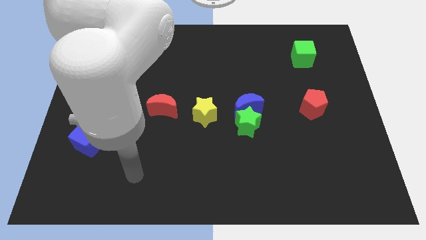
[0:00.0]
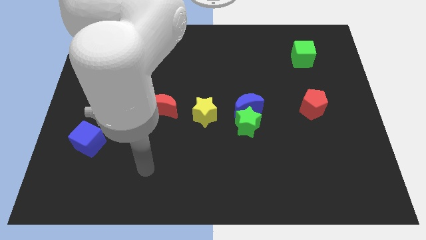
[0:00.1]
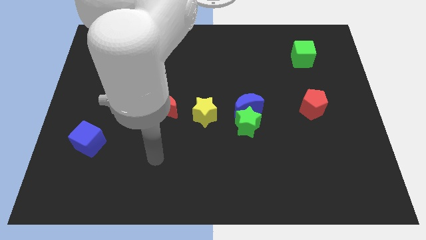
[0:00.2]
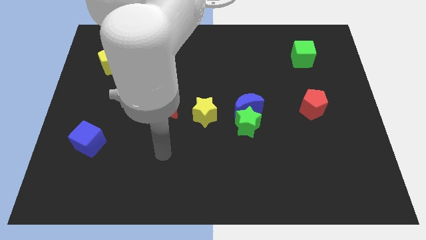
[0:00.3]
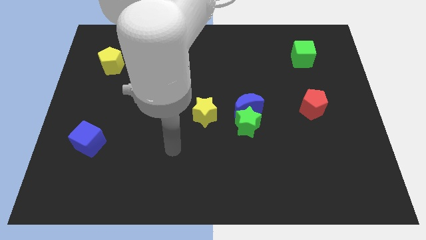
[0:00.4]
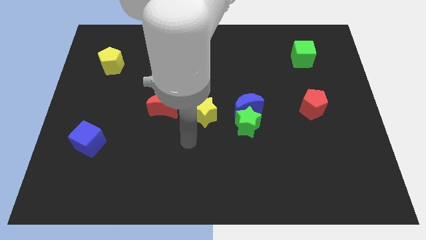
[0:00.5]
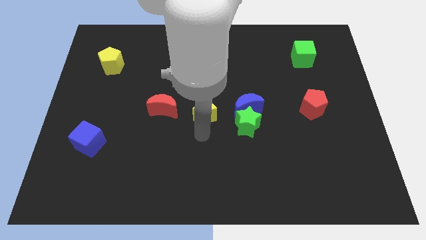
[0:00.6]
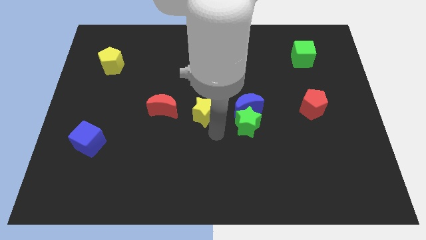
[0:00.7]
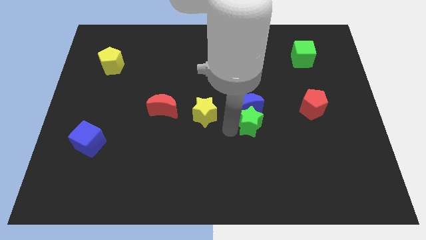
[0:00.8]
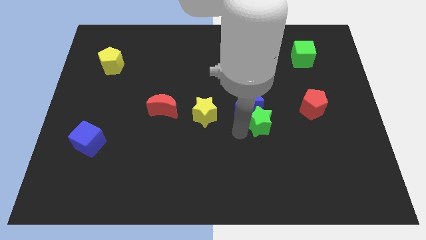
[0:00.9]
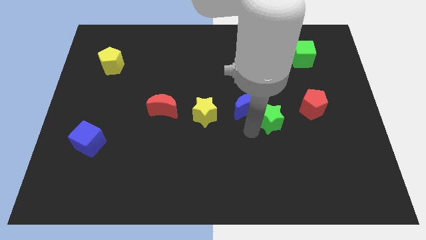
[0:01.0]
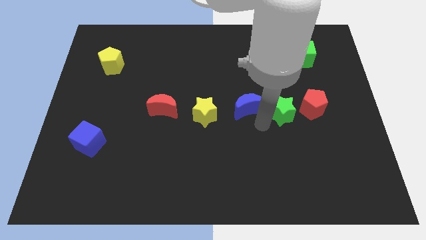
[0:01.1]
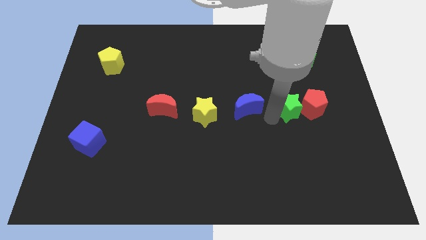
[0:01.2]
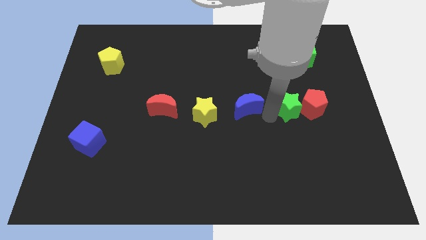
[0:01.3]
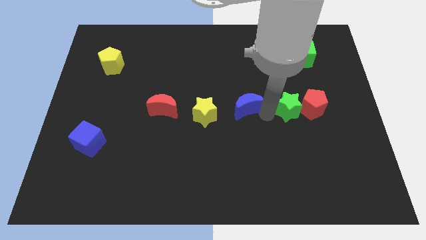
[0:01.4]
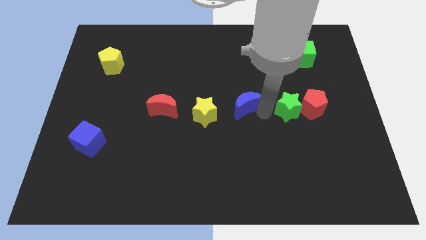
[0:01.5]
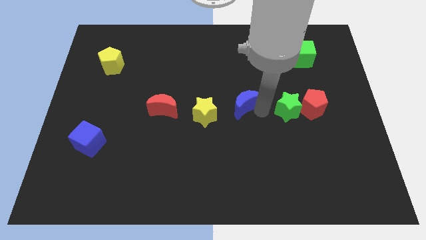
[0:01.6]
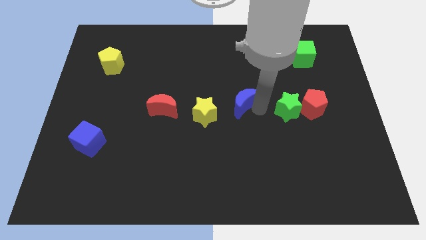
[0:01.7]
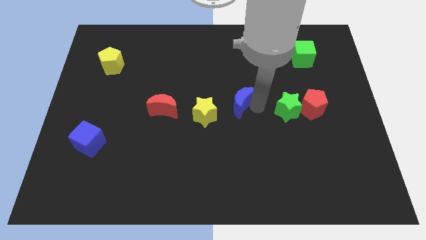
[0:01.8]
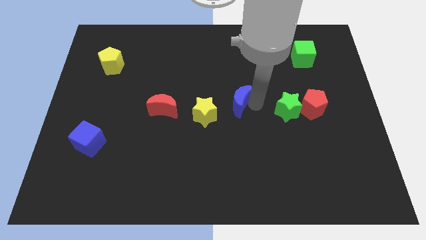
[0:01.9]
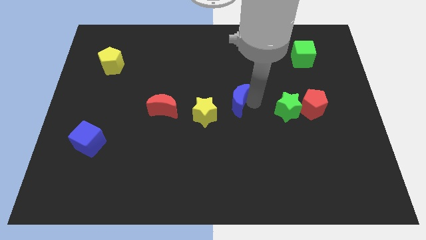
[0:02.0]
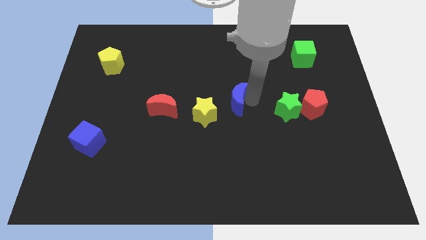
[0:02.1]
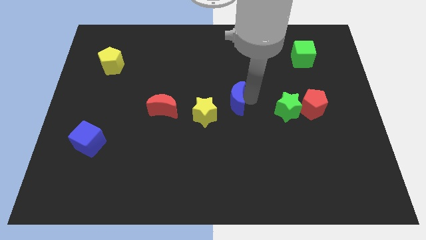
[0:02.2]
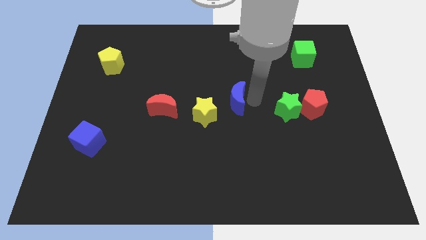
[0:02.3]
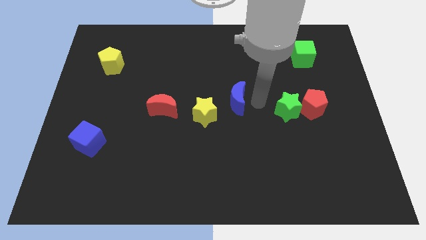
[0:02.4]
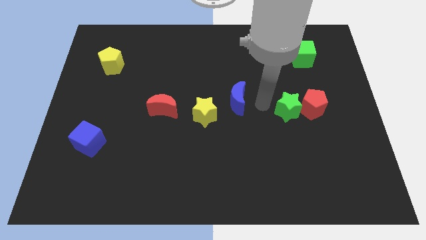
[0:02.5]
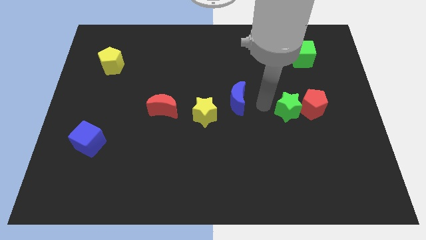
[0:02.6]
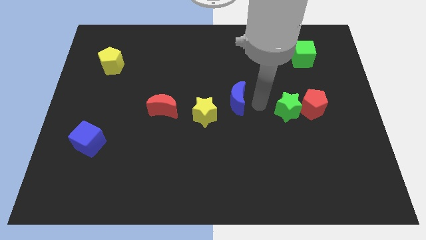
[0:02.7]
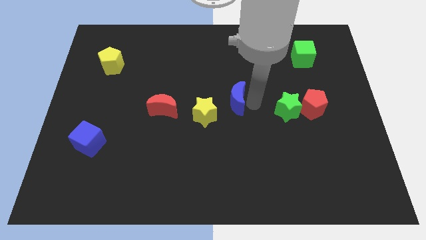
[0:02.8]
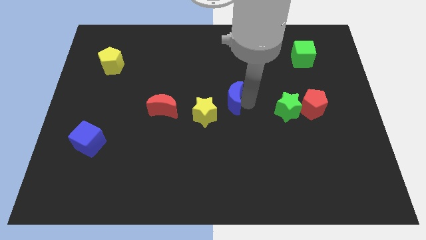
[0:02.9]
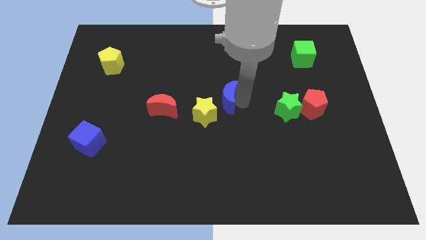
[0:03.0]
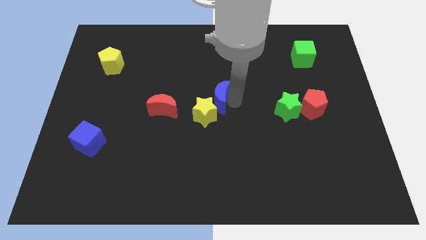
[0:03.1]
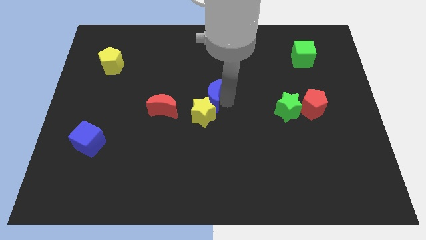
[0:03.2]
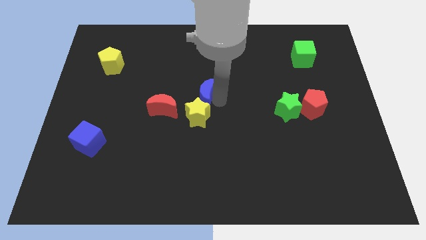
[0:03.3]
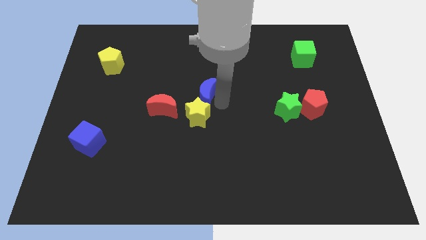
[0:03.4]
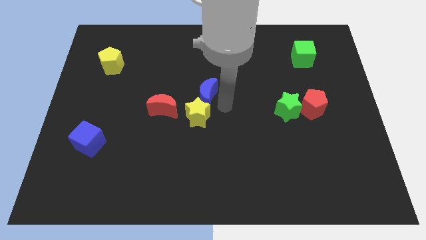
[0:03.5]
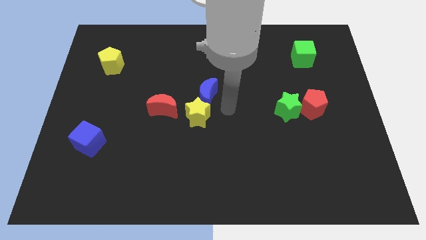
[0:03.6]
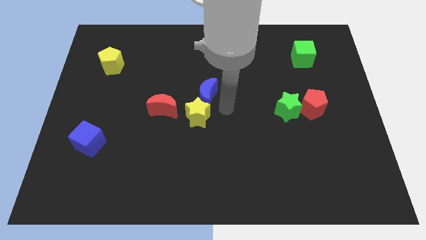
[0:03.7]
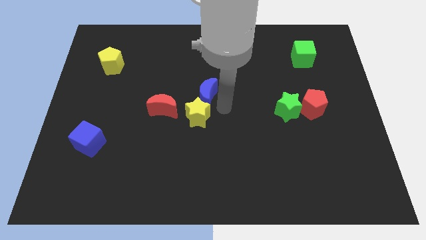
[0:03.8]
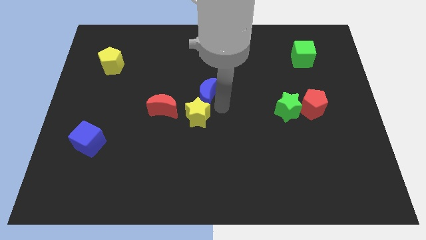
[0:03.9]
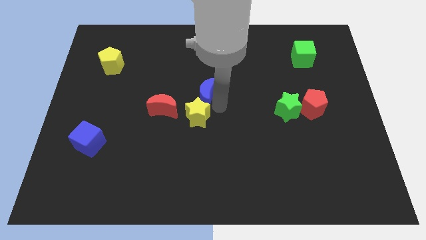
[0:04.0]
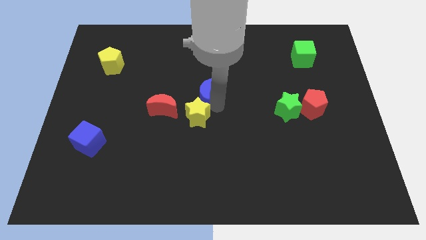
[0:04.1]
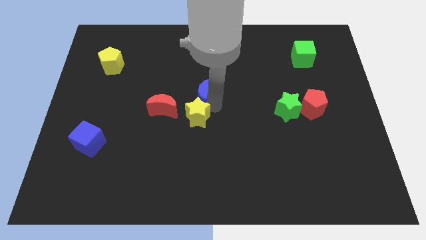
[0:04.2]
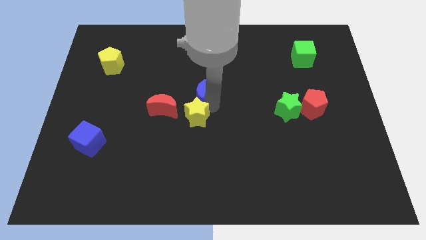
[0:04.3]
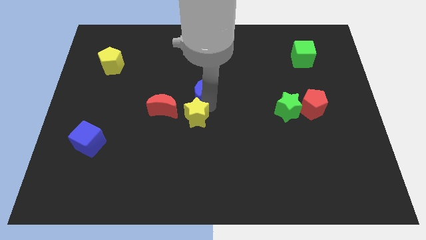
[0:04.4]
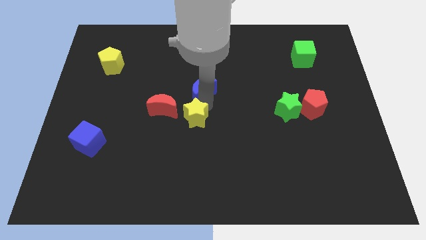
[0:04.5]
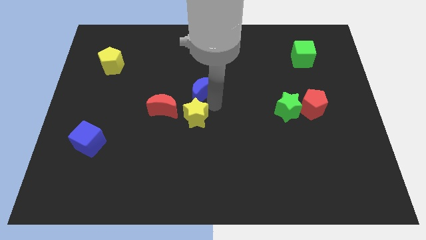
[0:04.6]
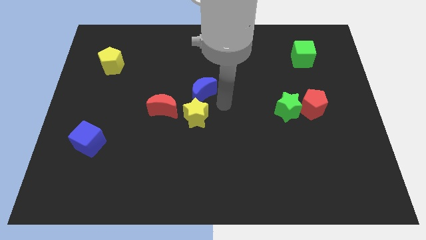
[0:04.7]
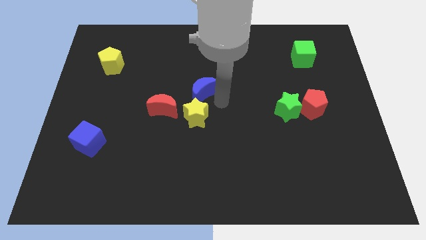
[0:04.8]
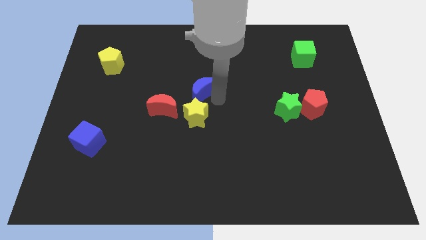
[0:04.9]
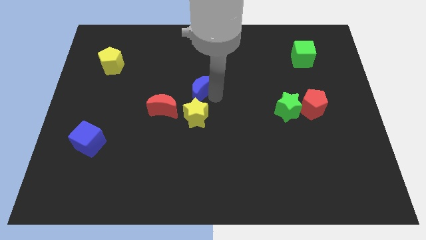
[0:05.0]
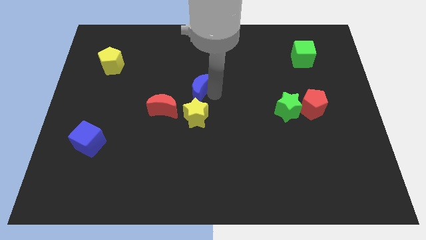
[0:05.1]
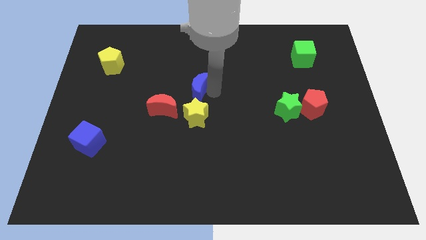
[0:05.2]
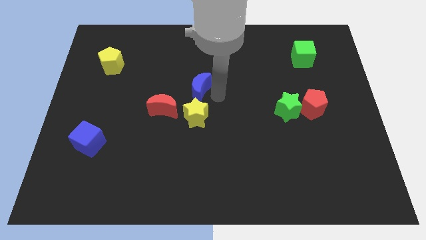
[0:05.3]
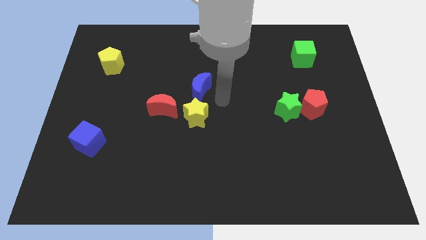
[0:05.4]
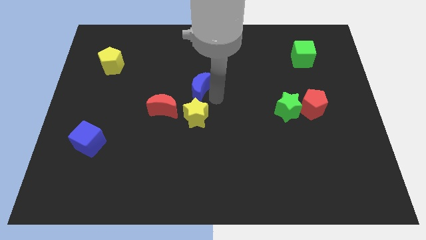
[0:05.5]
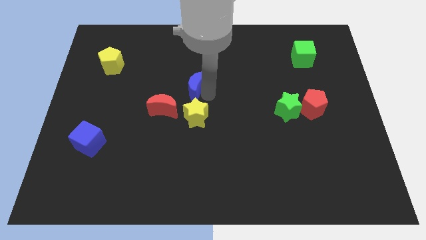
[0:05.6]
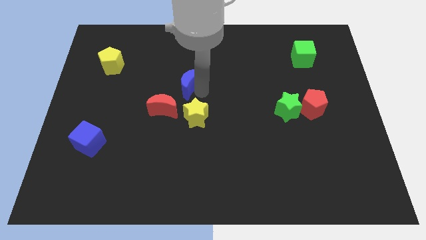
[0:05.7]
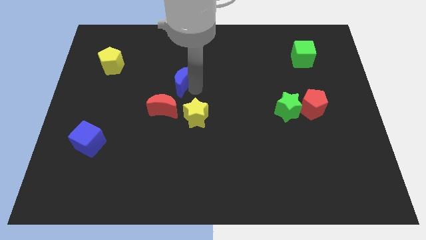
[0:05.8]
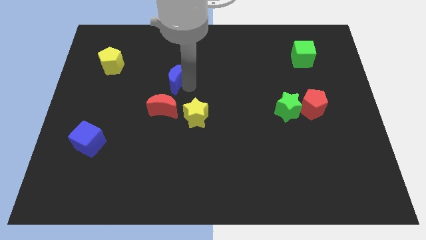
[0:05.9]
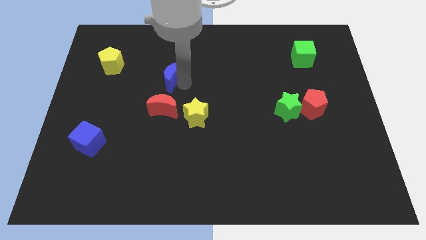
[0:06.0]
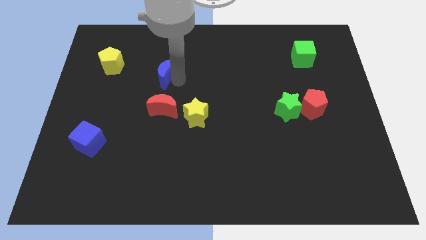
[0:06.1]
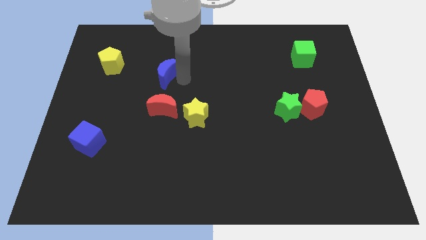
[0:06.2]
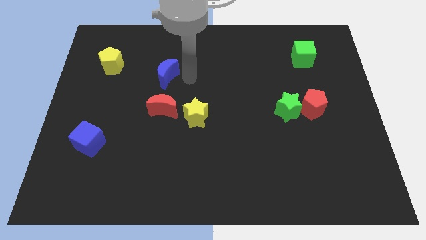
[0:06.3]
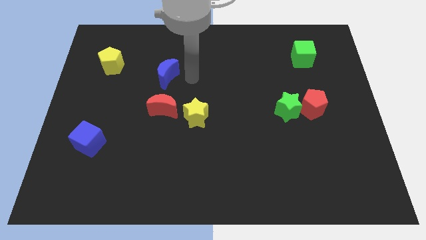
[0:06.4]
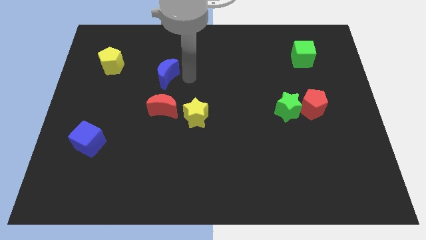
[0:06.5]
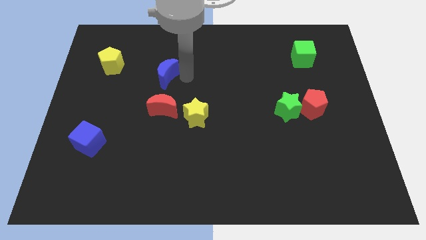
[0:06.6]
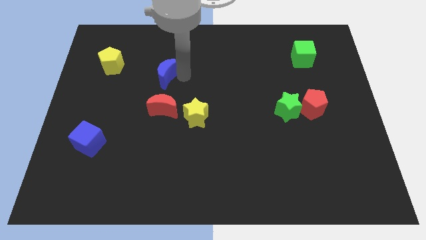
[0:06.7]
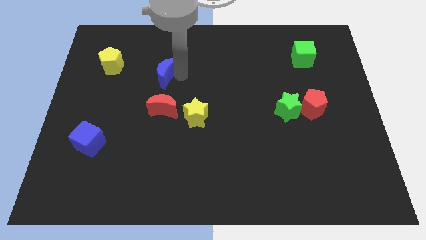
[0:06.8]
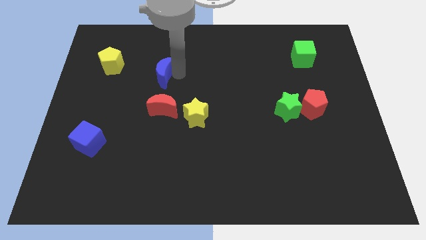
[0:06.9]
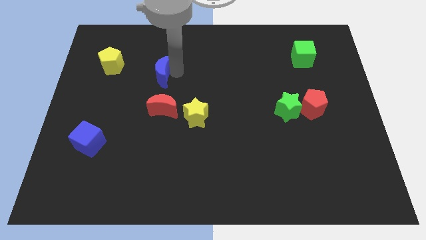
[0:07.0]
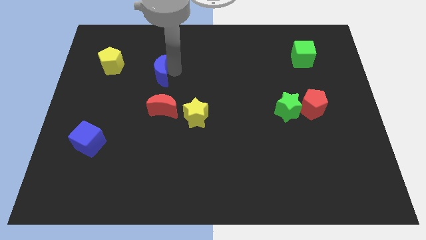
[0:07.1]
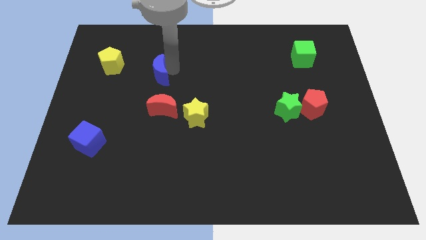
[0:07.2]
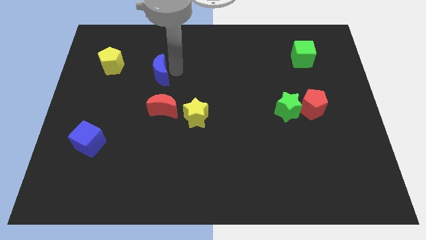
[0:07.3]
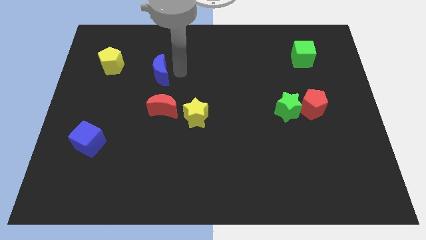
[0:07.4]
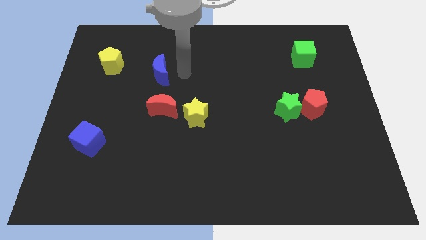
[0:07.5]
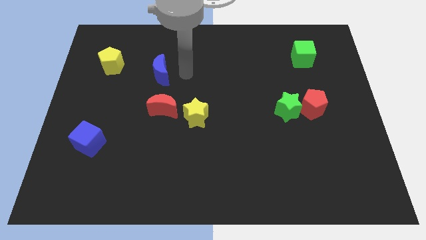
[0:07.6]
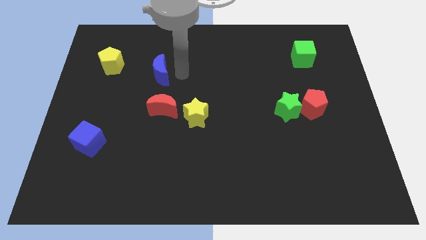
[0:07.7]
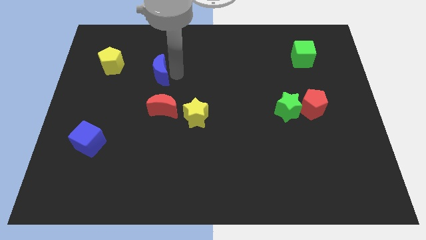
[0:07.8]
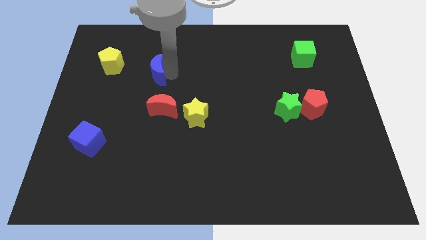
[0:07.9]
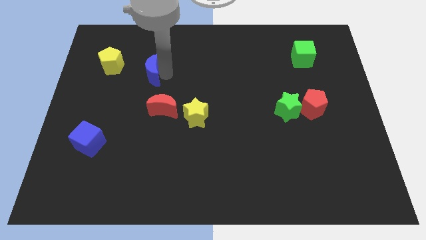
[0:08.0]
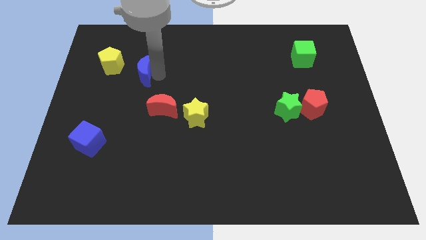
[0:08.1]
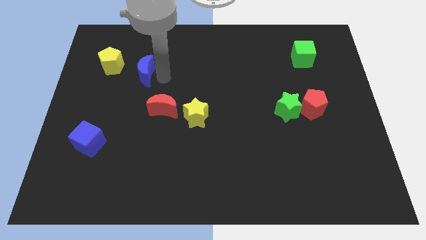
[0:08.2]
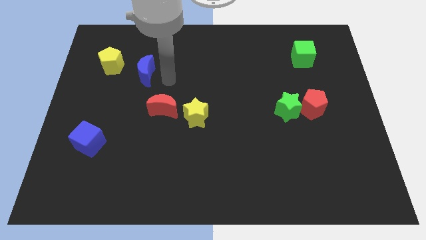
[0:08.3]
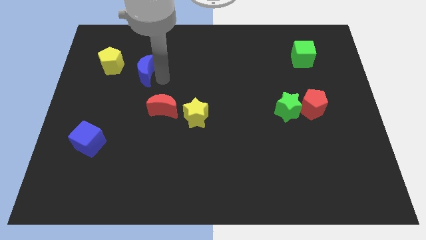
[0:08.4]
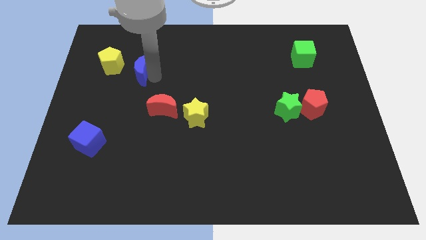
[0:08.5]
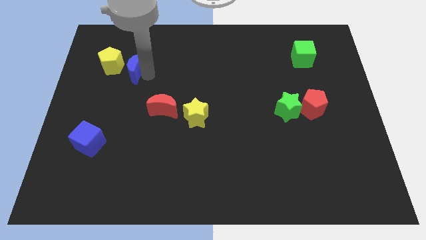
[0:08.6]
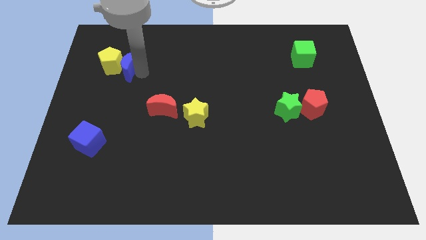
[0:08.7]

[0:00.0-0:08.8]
put the blue moon close to the yellow pentagon
